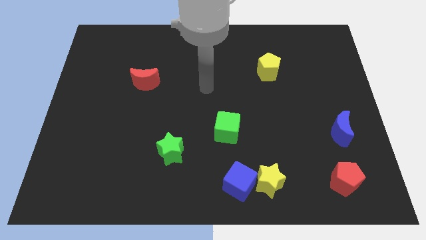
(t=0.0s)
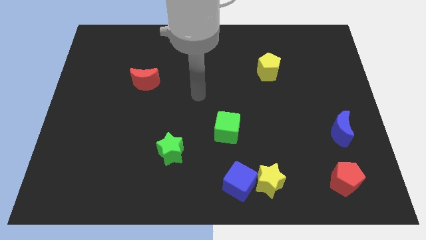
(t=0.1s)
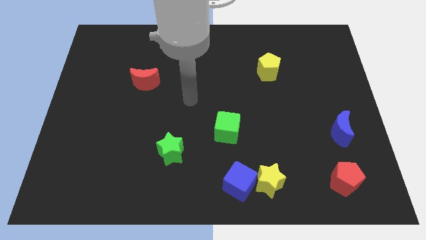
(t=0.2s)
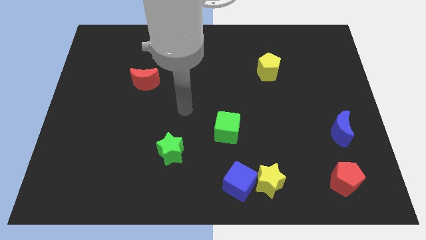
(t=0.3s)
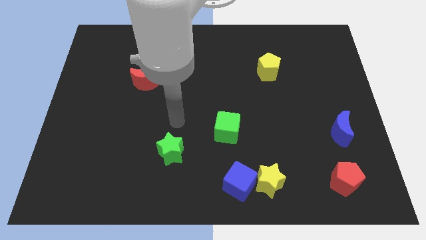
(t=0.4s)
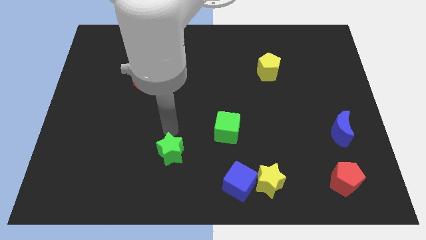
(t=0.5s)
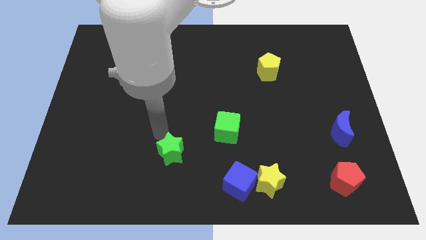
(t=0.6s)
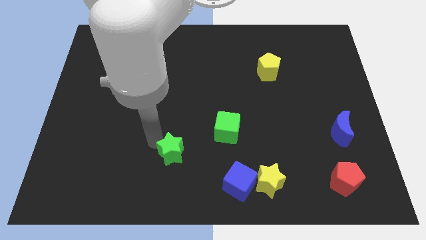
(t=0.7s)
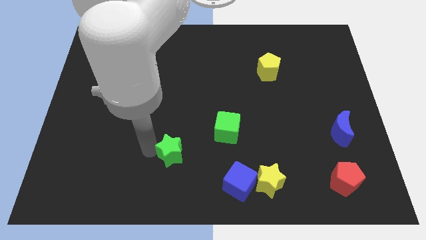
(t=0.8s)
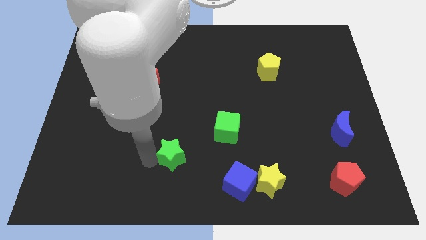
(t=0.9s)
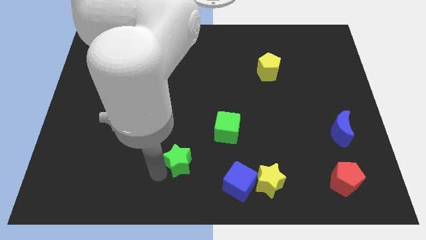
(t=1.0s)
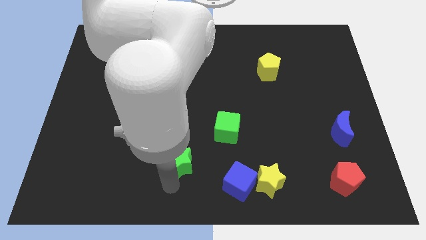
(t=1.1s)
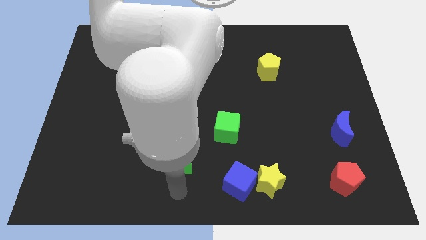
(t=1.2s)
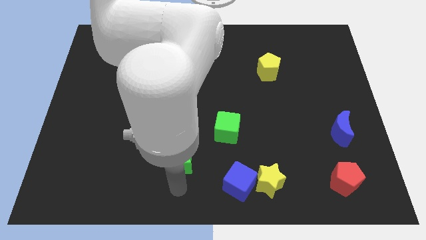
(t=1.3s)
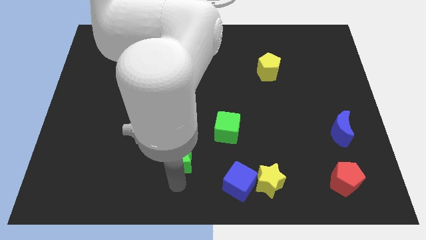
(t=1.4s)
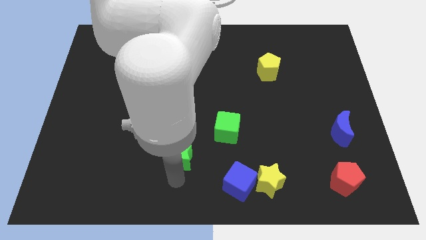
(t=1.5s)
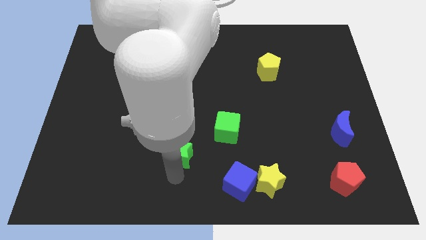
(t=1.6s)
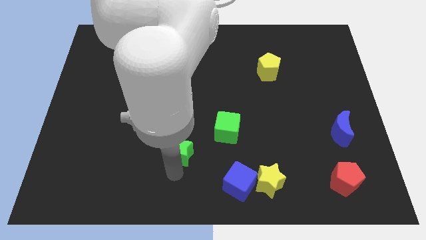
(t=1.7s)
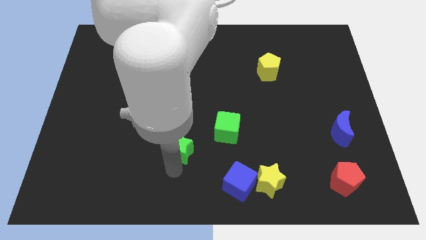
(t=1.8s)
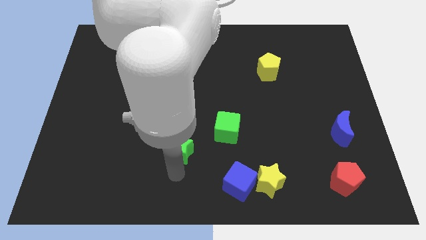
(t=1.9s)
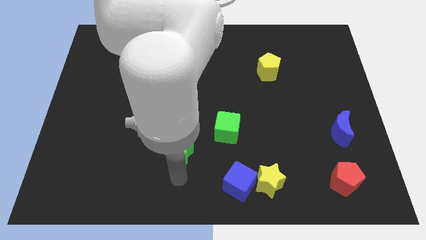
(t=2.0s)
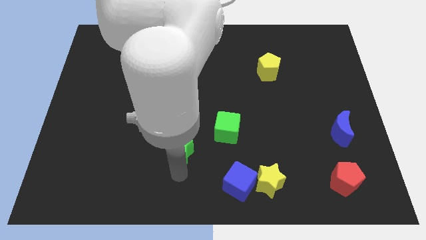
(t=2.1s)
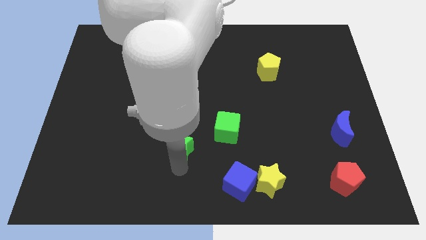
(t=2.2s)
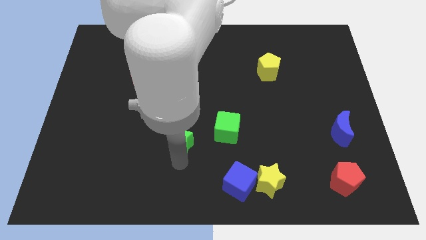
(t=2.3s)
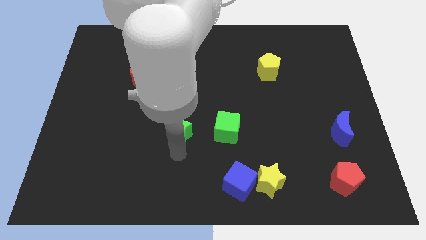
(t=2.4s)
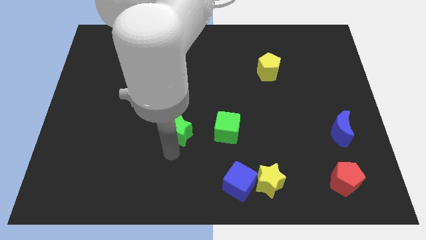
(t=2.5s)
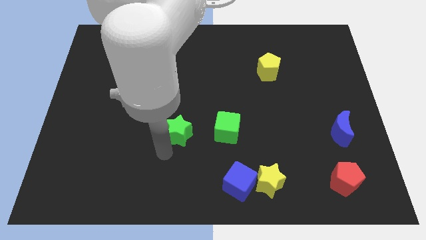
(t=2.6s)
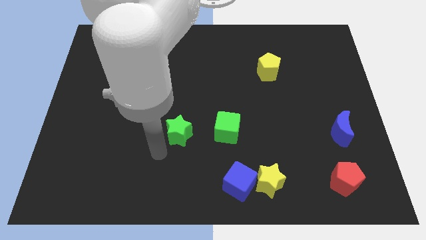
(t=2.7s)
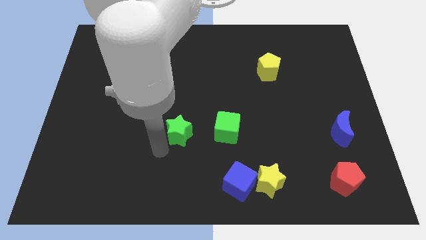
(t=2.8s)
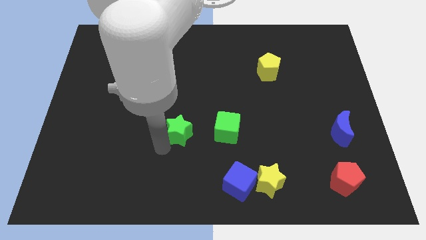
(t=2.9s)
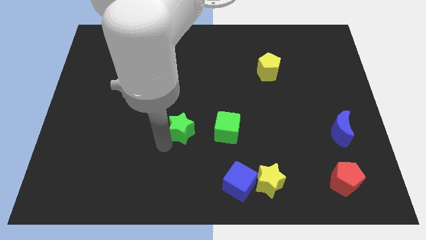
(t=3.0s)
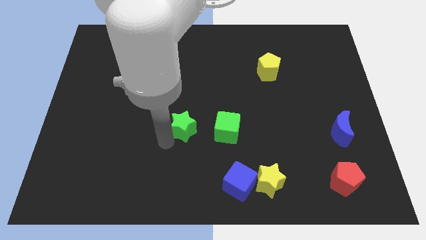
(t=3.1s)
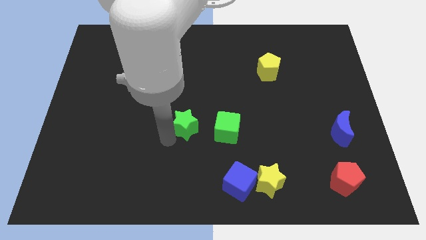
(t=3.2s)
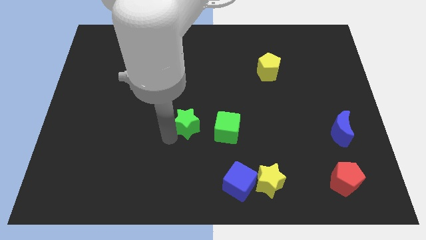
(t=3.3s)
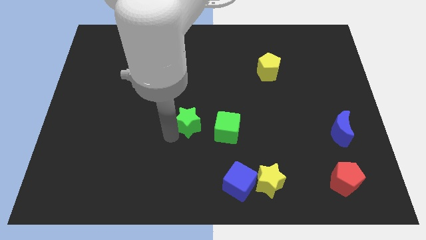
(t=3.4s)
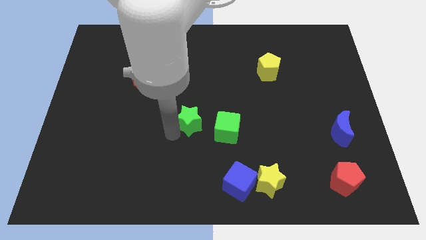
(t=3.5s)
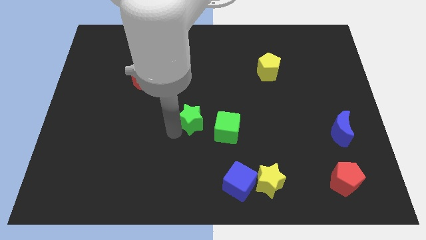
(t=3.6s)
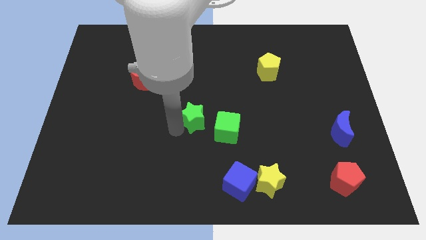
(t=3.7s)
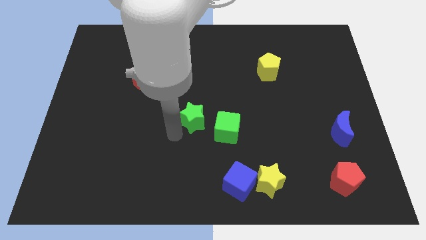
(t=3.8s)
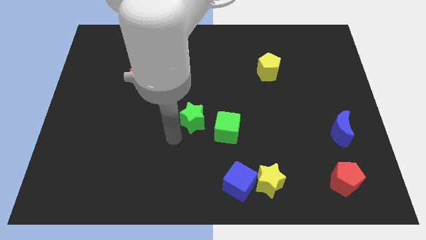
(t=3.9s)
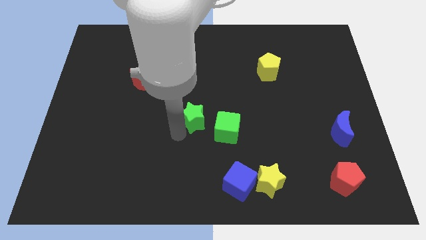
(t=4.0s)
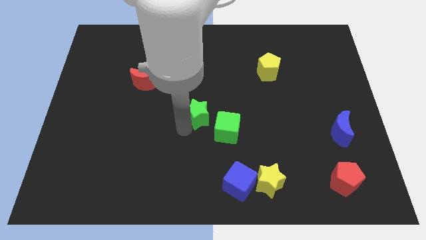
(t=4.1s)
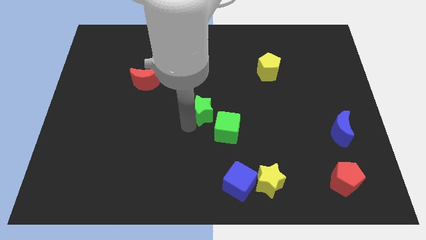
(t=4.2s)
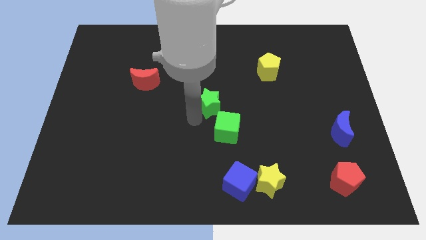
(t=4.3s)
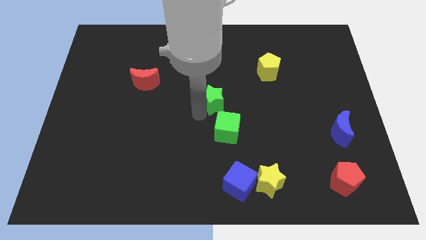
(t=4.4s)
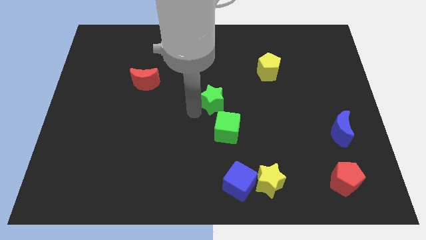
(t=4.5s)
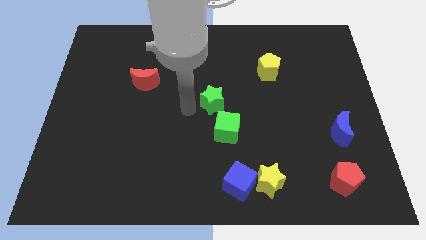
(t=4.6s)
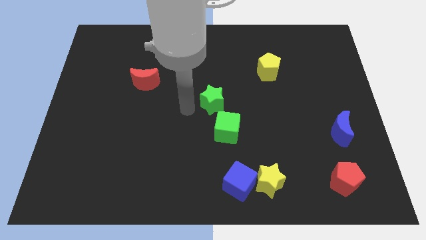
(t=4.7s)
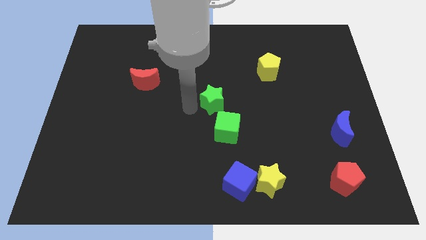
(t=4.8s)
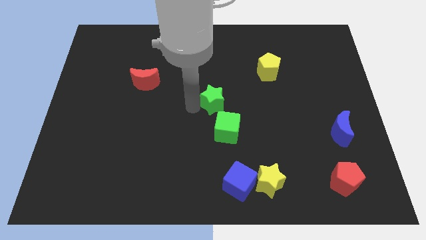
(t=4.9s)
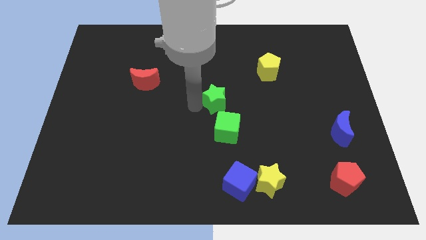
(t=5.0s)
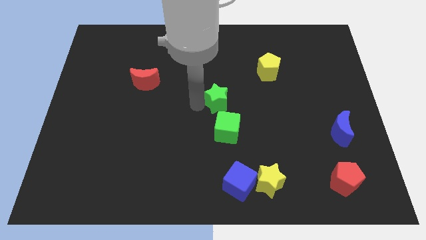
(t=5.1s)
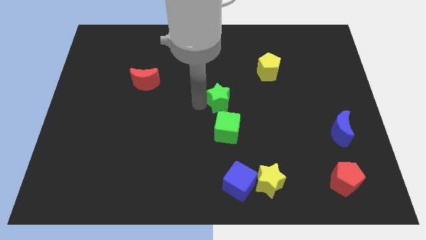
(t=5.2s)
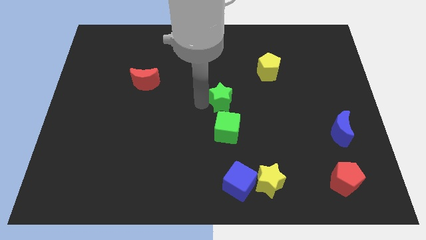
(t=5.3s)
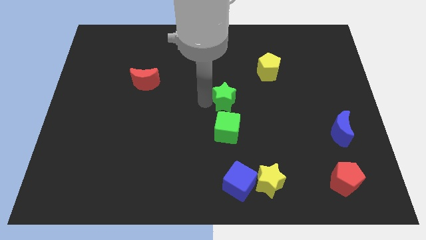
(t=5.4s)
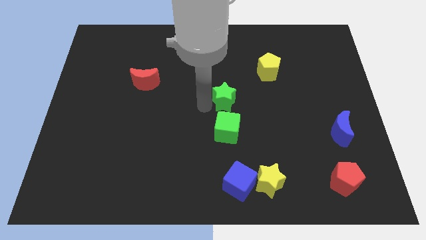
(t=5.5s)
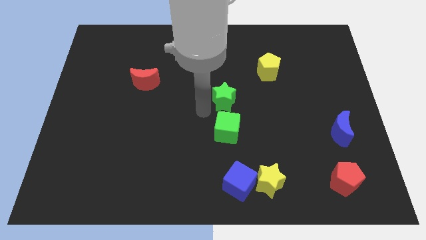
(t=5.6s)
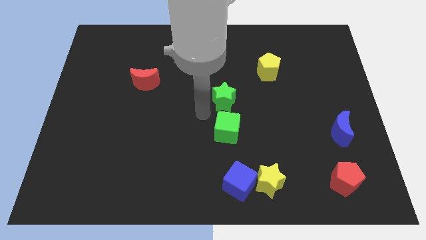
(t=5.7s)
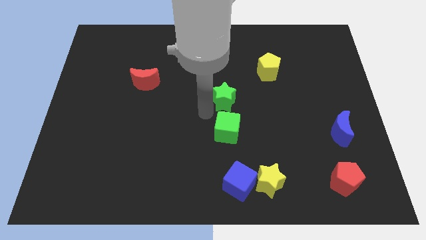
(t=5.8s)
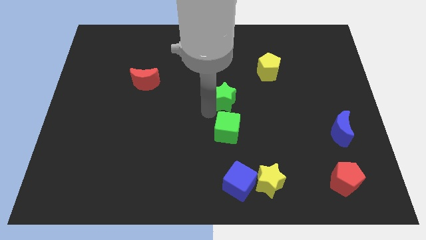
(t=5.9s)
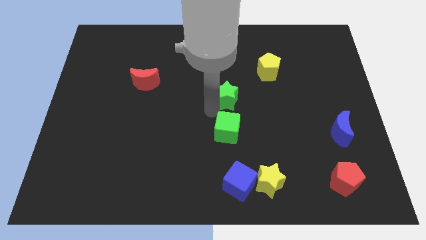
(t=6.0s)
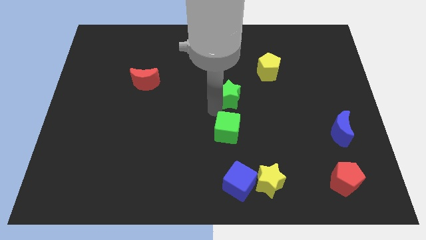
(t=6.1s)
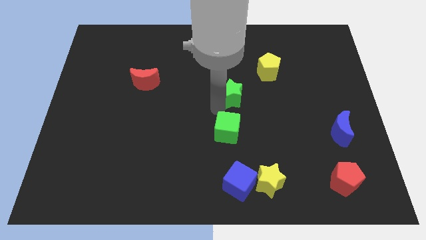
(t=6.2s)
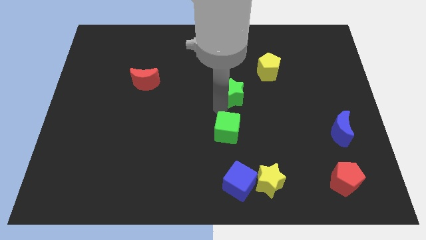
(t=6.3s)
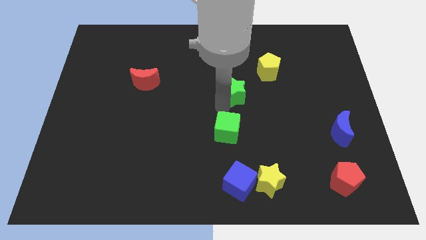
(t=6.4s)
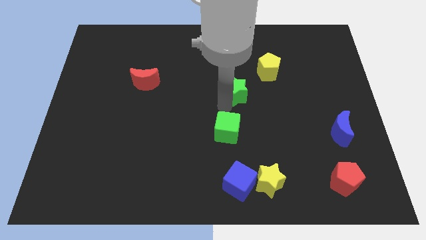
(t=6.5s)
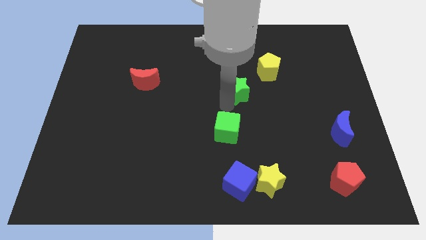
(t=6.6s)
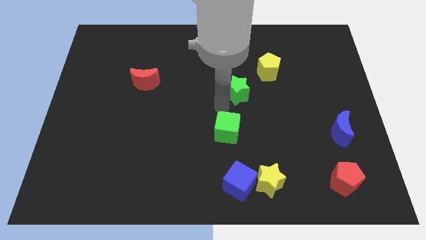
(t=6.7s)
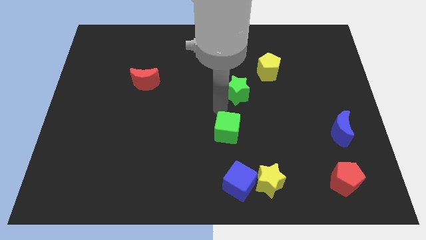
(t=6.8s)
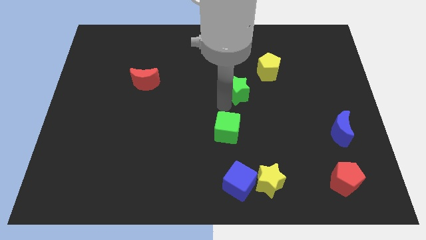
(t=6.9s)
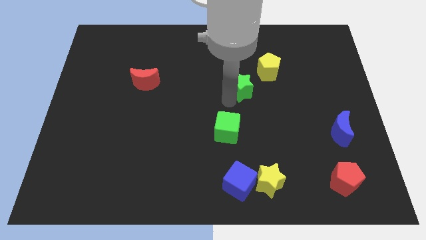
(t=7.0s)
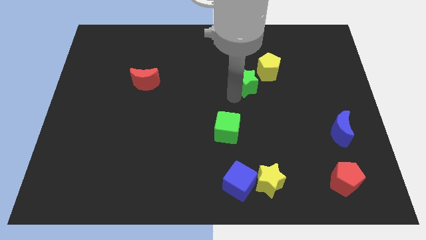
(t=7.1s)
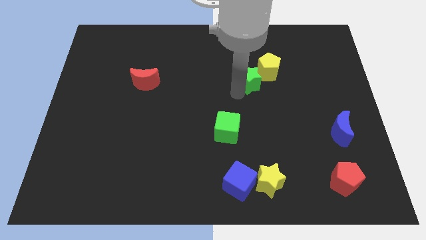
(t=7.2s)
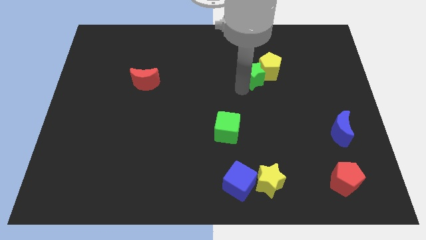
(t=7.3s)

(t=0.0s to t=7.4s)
slide the green star towards the yellow pentagon

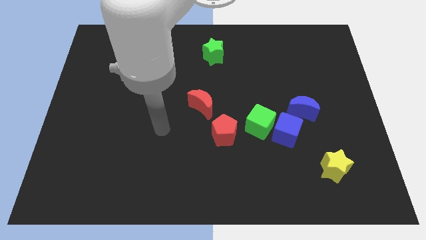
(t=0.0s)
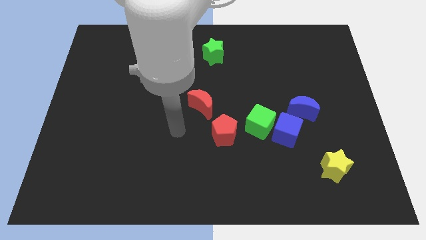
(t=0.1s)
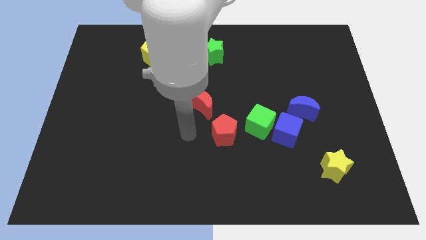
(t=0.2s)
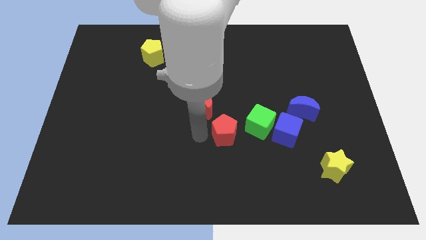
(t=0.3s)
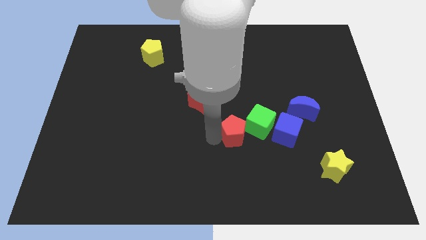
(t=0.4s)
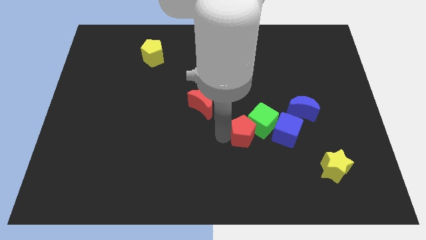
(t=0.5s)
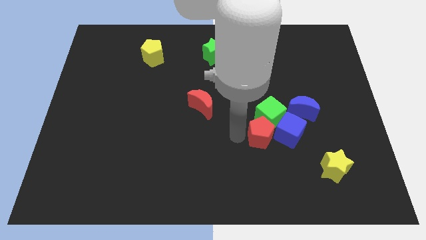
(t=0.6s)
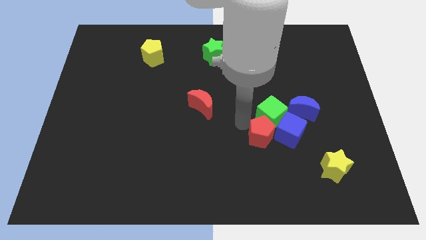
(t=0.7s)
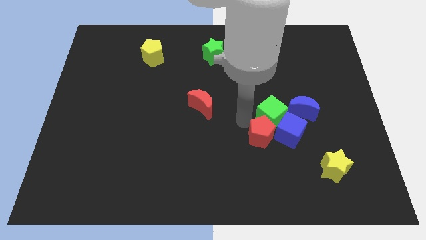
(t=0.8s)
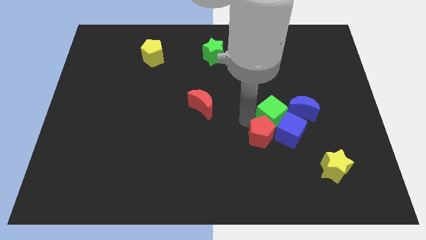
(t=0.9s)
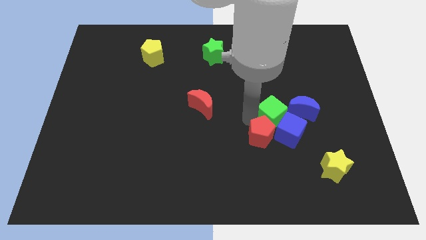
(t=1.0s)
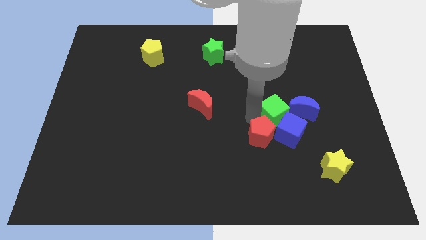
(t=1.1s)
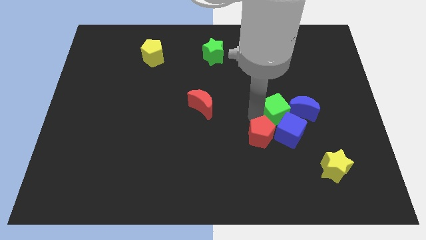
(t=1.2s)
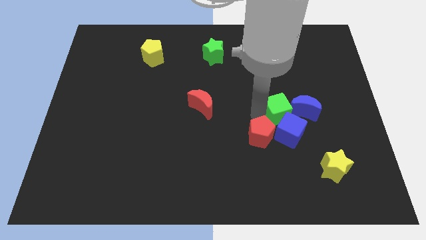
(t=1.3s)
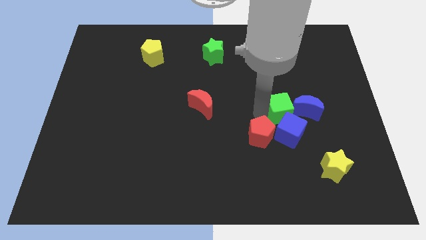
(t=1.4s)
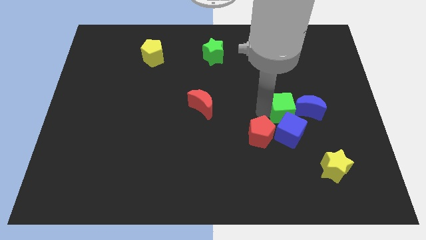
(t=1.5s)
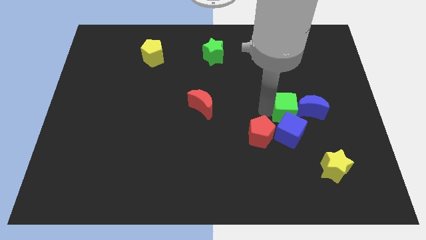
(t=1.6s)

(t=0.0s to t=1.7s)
push the green cube towards the blue moon
